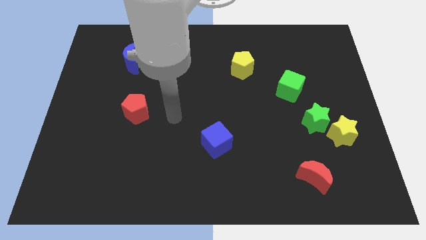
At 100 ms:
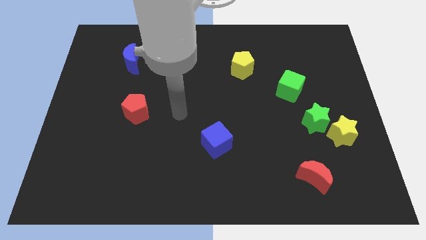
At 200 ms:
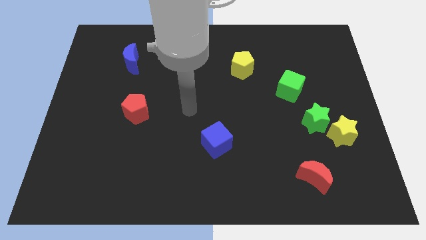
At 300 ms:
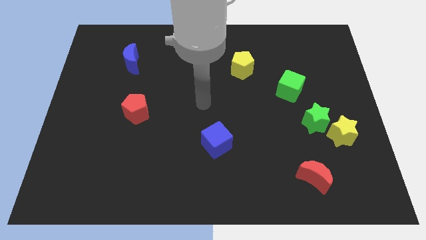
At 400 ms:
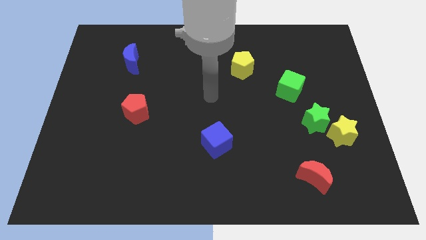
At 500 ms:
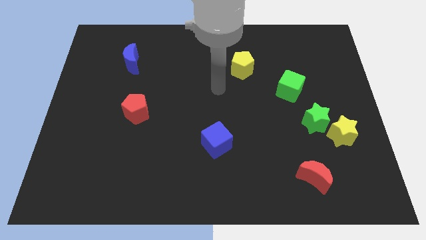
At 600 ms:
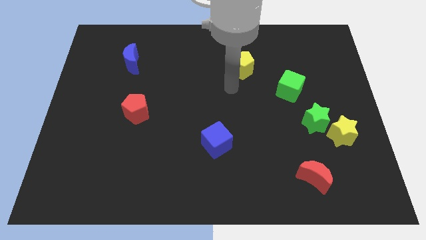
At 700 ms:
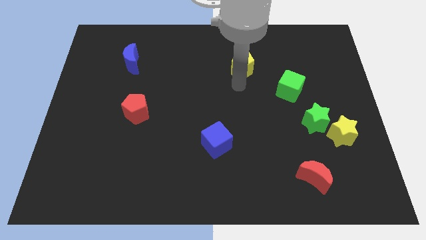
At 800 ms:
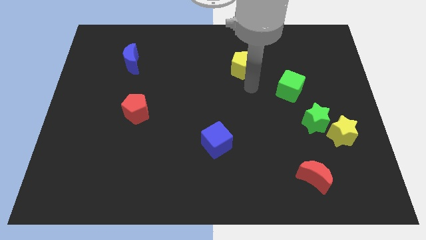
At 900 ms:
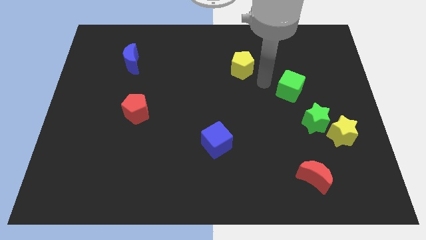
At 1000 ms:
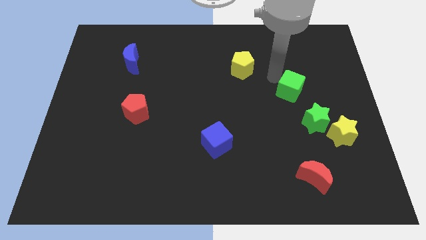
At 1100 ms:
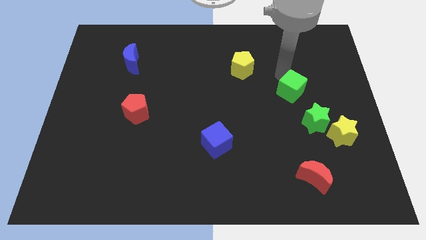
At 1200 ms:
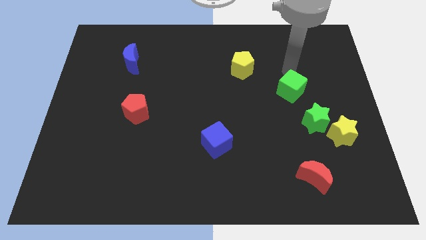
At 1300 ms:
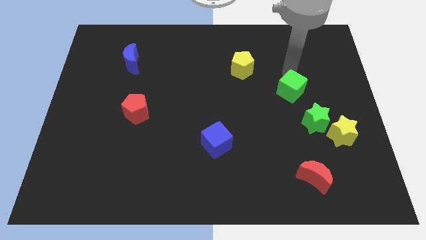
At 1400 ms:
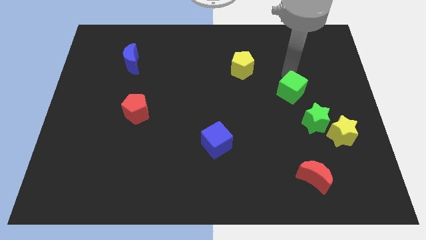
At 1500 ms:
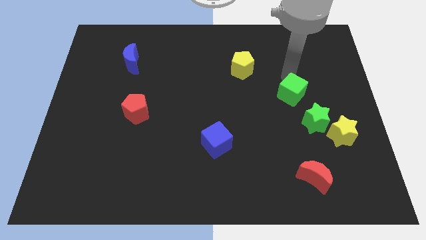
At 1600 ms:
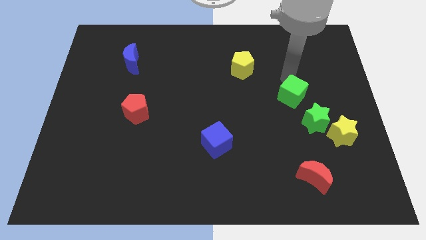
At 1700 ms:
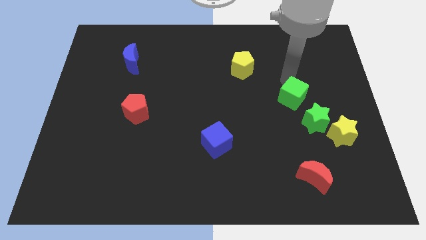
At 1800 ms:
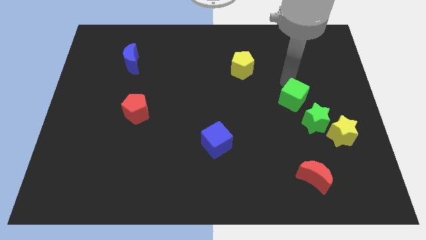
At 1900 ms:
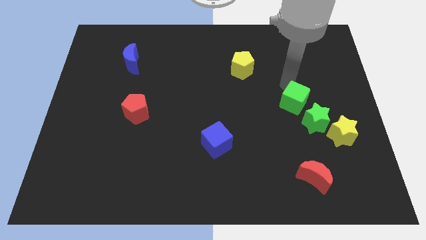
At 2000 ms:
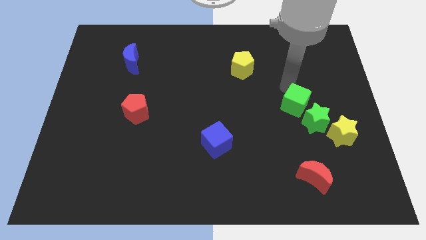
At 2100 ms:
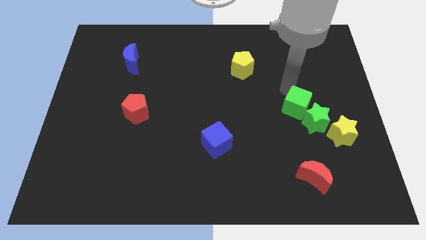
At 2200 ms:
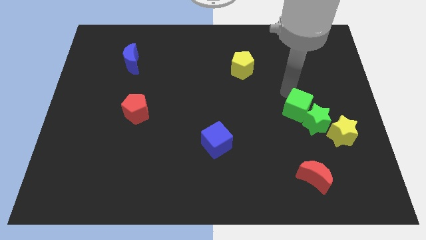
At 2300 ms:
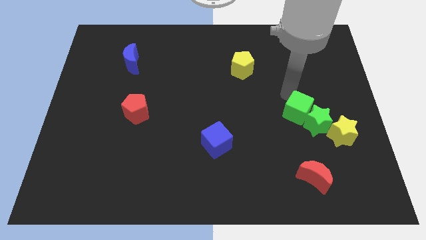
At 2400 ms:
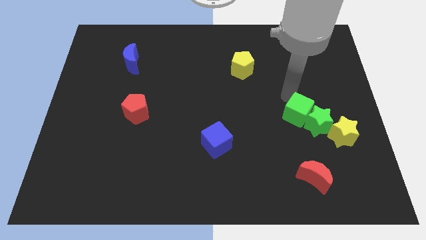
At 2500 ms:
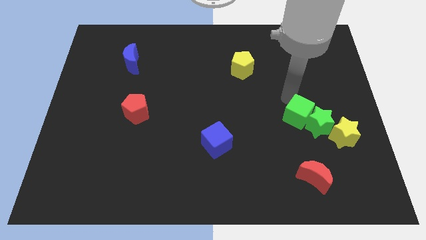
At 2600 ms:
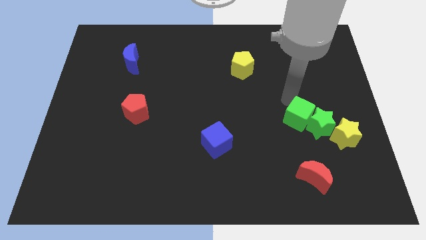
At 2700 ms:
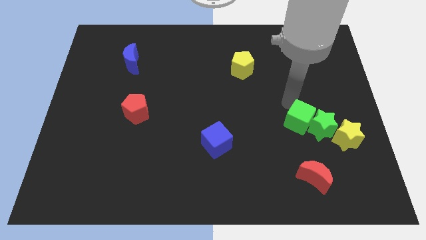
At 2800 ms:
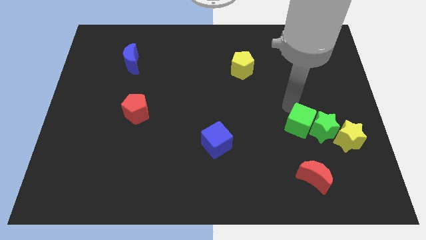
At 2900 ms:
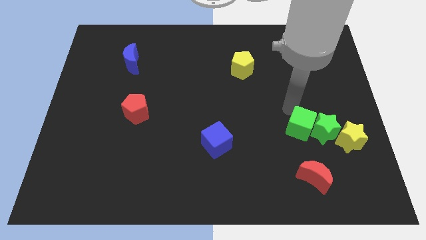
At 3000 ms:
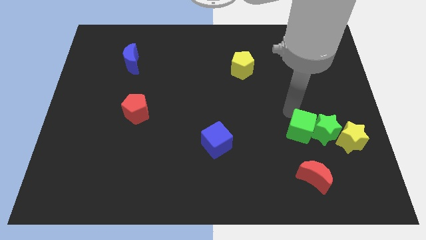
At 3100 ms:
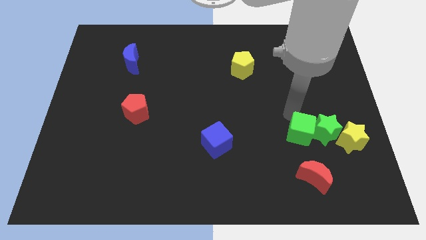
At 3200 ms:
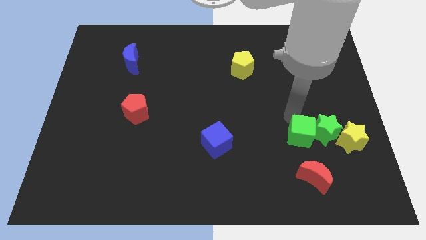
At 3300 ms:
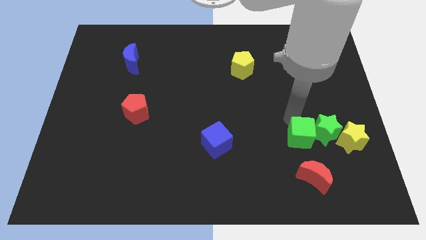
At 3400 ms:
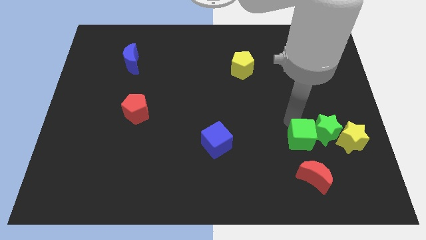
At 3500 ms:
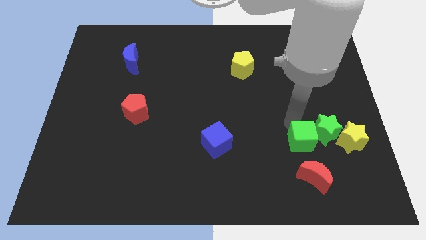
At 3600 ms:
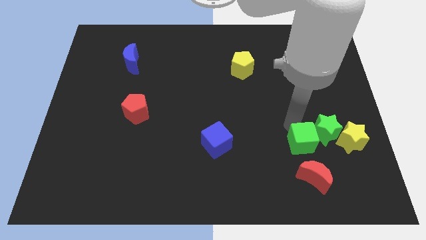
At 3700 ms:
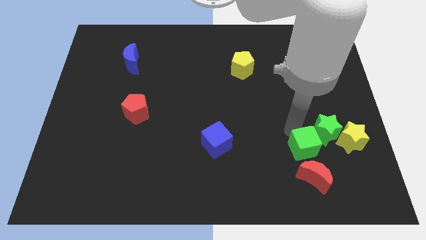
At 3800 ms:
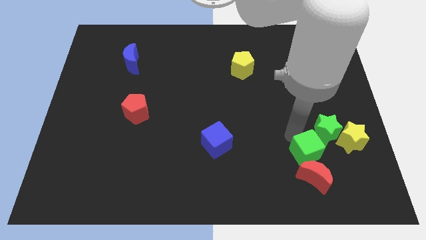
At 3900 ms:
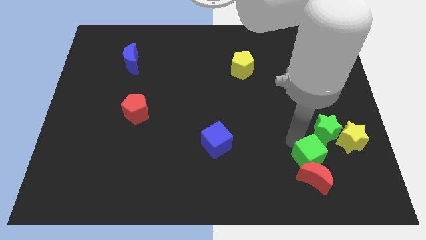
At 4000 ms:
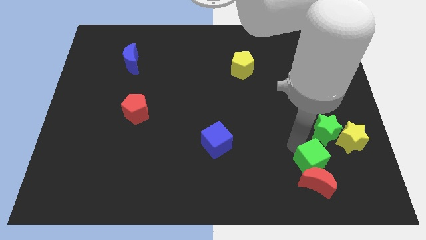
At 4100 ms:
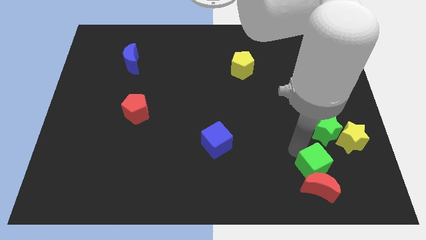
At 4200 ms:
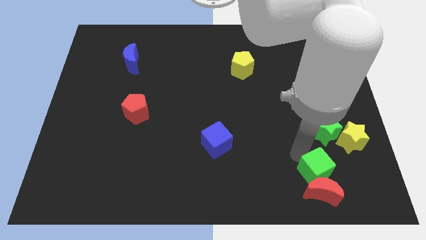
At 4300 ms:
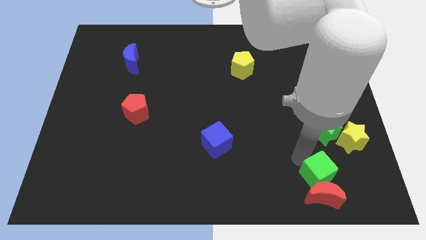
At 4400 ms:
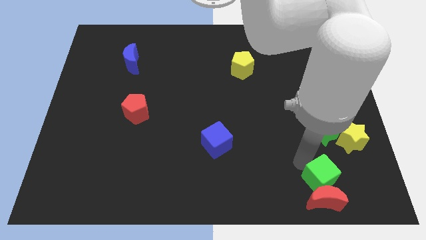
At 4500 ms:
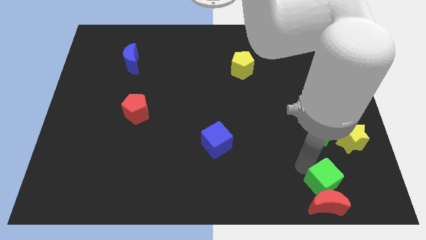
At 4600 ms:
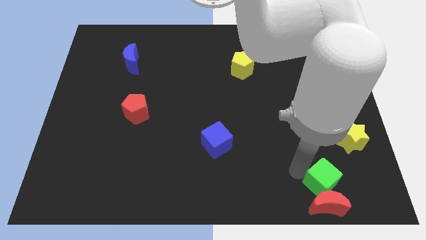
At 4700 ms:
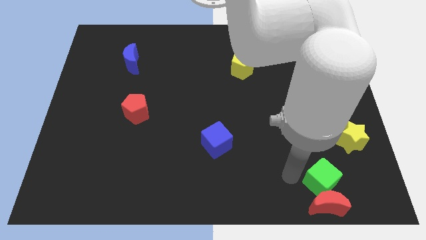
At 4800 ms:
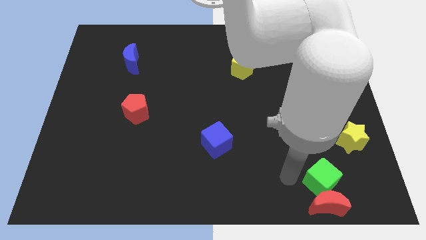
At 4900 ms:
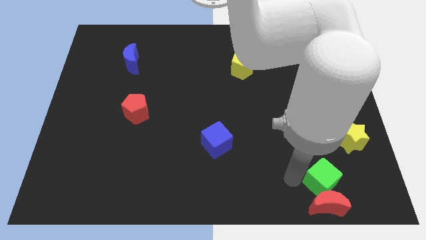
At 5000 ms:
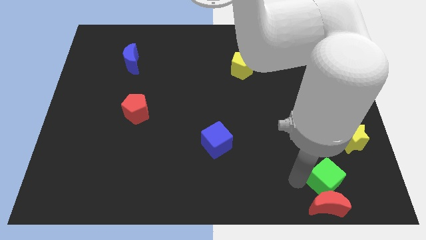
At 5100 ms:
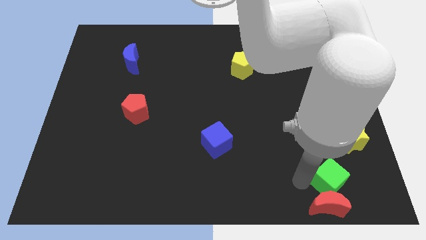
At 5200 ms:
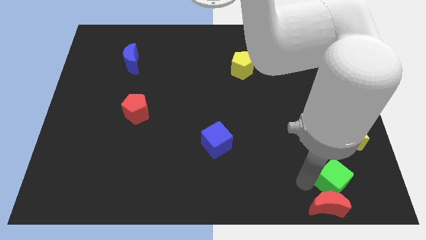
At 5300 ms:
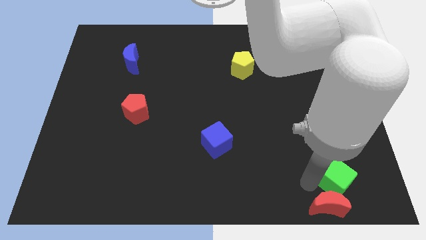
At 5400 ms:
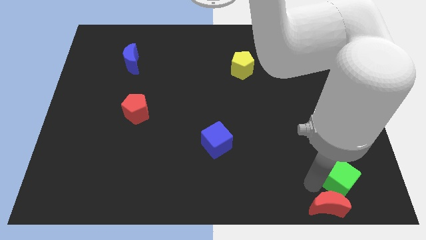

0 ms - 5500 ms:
move the green cube to the bottom side of the yellow star

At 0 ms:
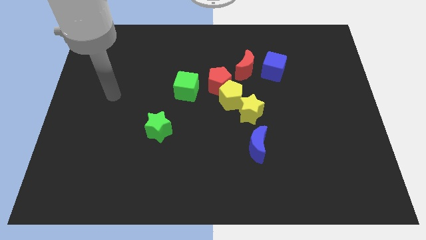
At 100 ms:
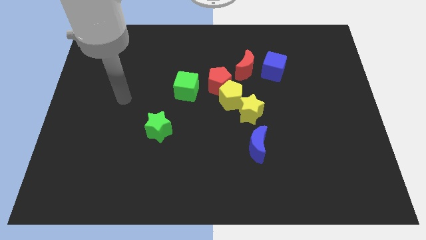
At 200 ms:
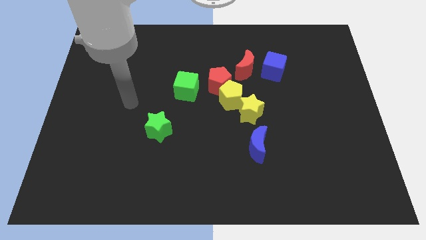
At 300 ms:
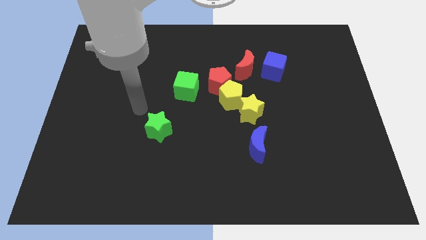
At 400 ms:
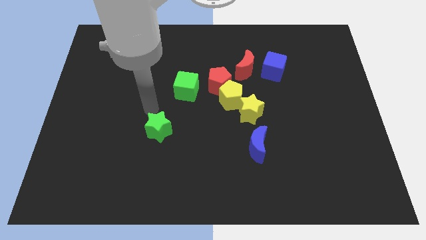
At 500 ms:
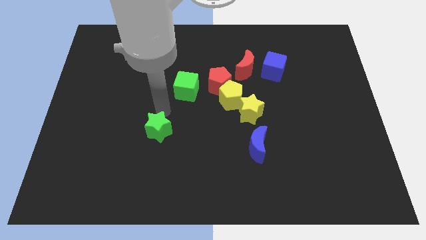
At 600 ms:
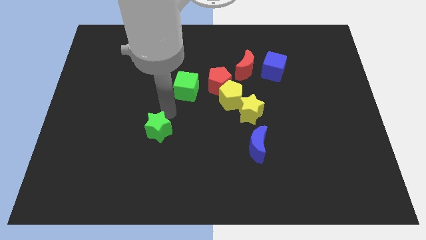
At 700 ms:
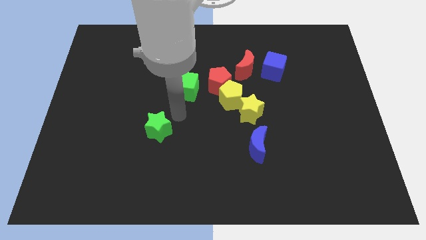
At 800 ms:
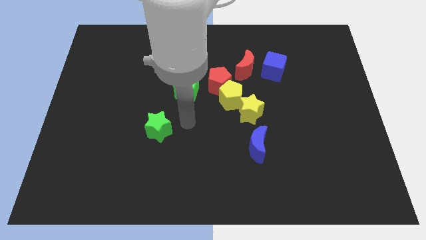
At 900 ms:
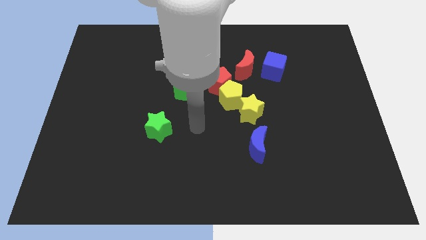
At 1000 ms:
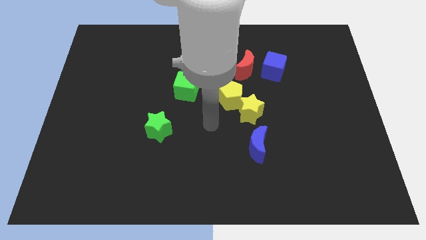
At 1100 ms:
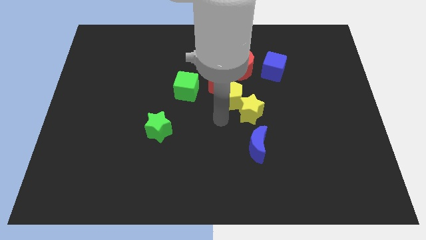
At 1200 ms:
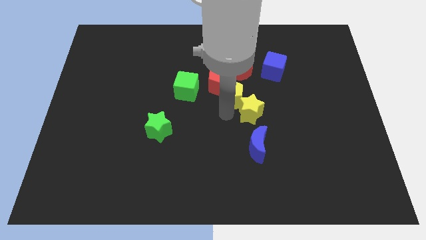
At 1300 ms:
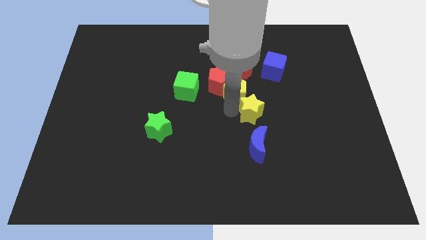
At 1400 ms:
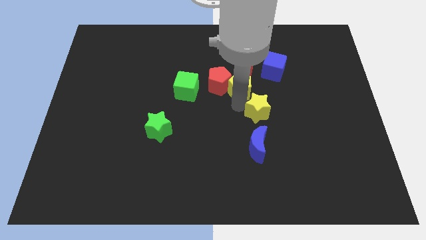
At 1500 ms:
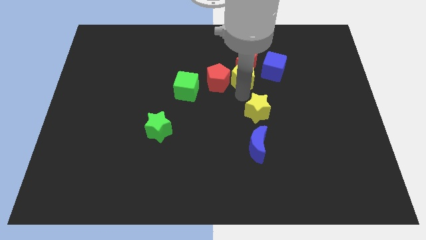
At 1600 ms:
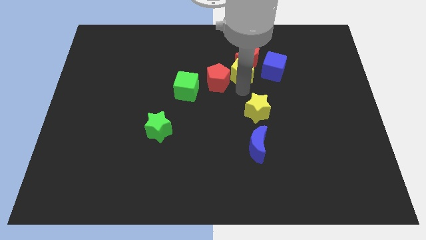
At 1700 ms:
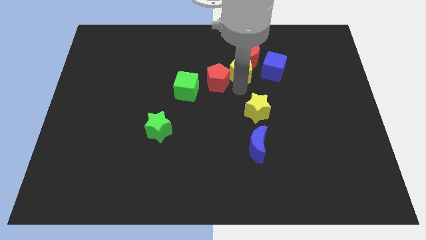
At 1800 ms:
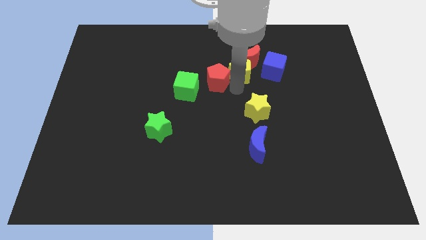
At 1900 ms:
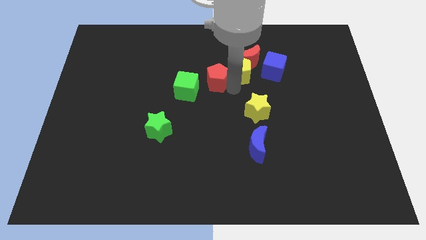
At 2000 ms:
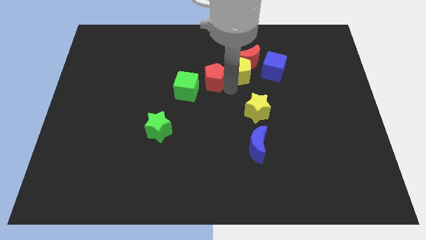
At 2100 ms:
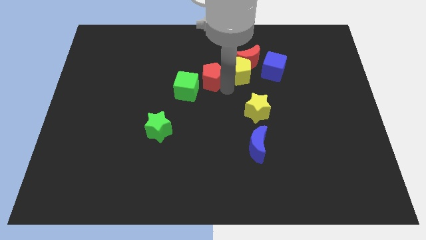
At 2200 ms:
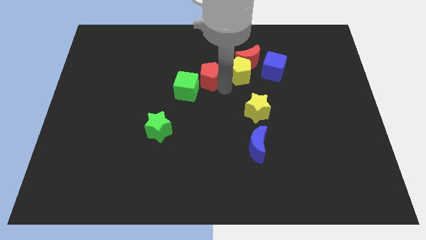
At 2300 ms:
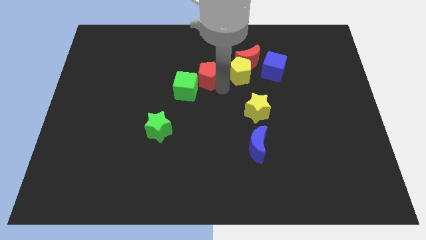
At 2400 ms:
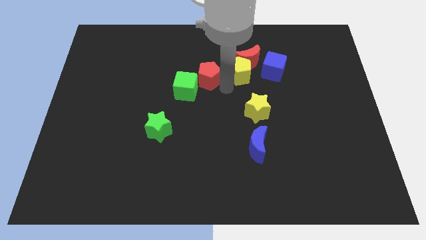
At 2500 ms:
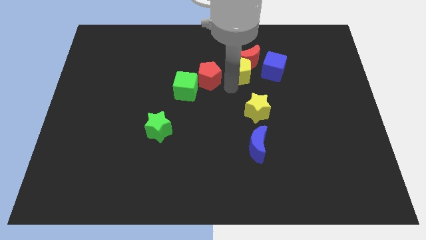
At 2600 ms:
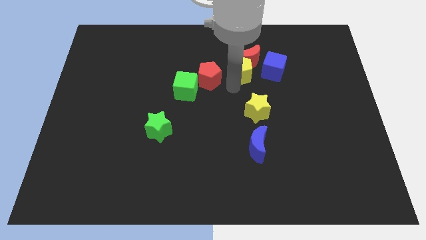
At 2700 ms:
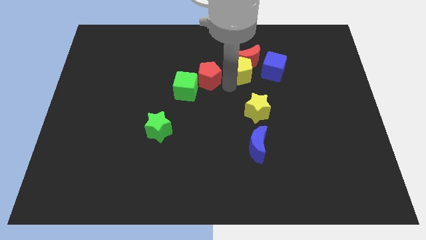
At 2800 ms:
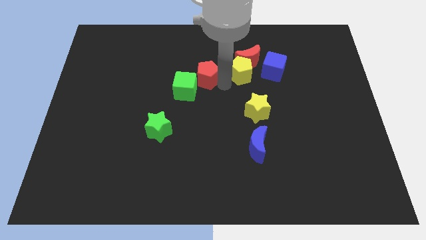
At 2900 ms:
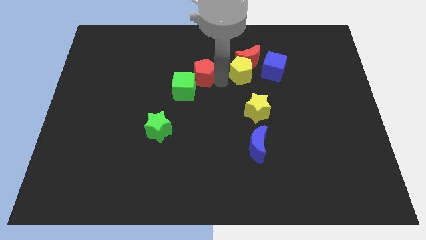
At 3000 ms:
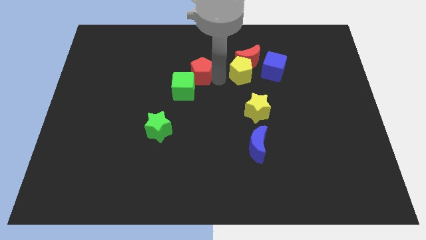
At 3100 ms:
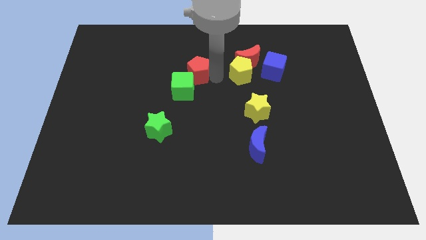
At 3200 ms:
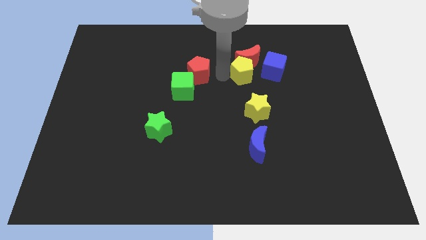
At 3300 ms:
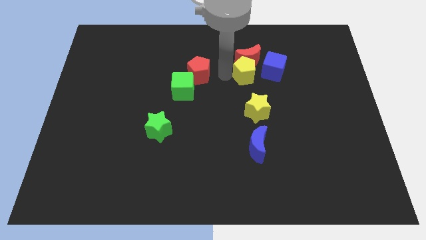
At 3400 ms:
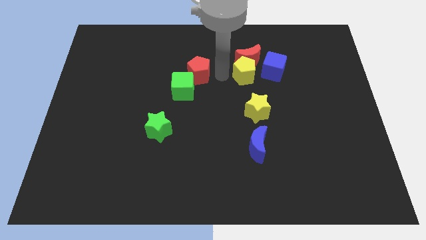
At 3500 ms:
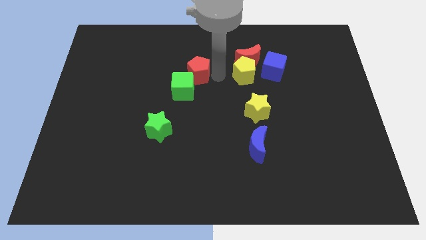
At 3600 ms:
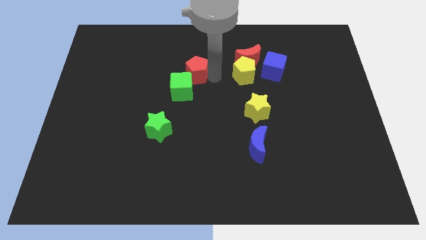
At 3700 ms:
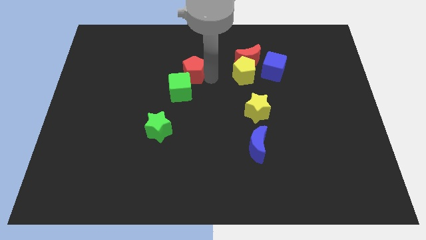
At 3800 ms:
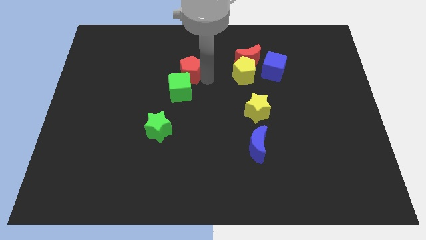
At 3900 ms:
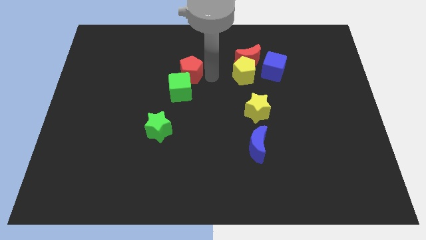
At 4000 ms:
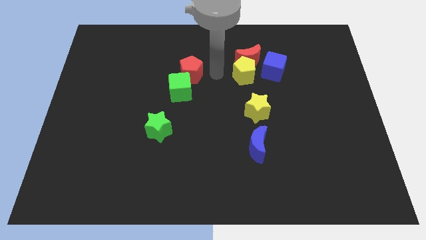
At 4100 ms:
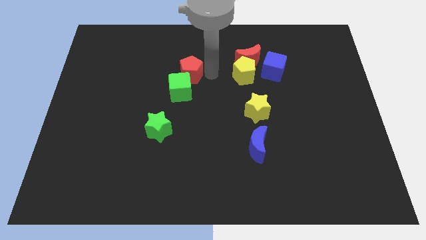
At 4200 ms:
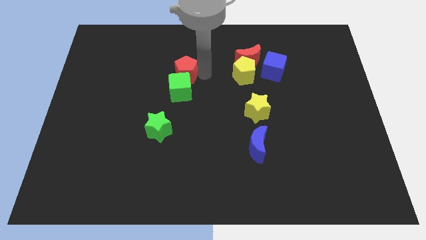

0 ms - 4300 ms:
slide the red pentagon diagonally up and to the left of the green cube
